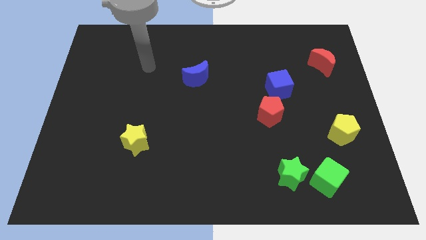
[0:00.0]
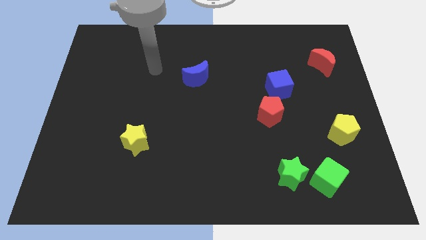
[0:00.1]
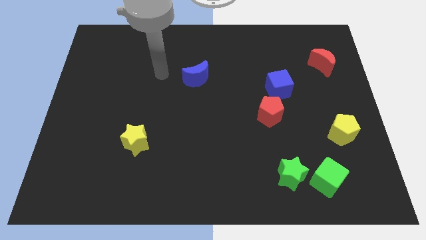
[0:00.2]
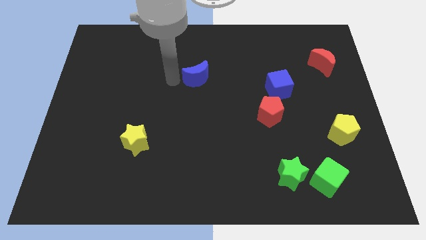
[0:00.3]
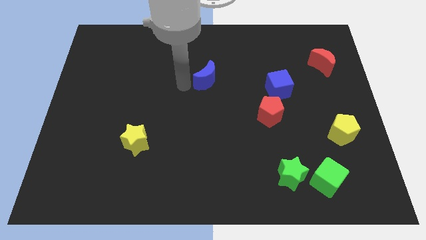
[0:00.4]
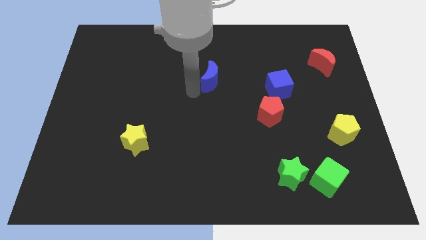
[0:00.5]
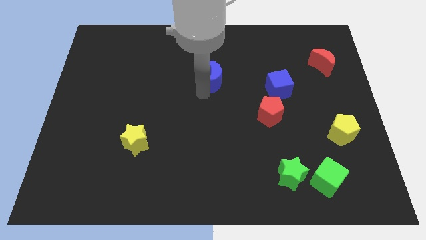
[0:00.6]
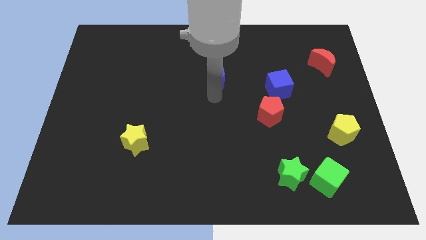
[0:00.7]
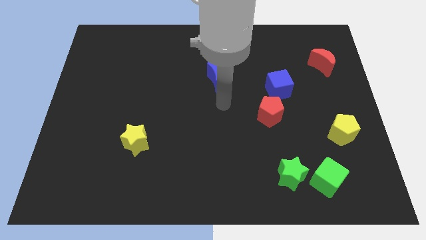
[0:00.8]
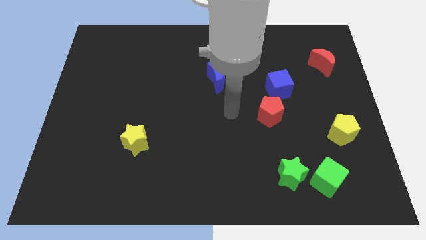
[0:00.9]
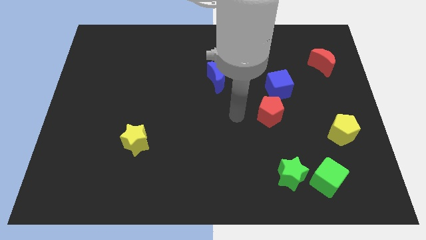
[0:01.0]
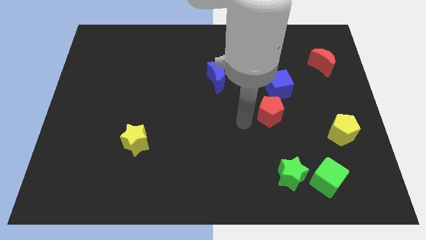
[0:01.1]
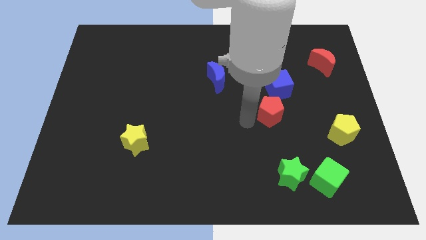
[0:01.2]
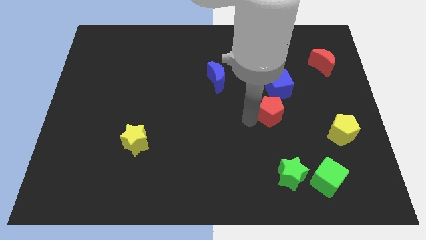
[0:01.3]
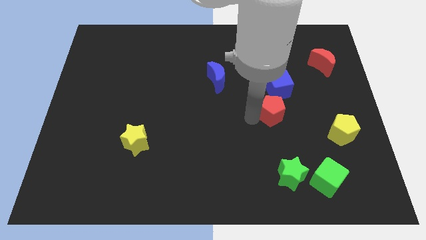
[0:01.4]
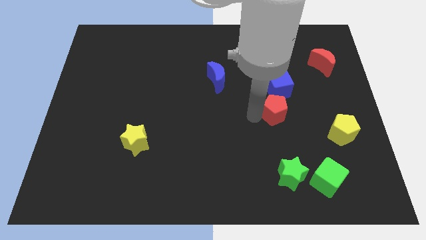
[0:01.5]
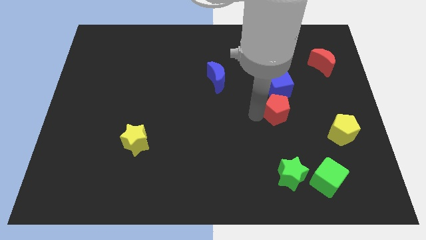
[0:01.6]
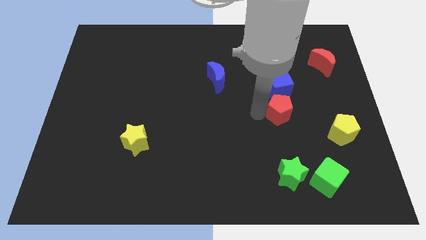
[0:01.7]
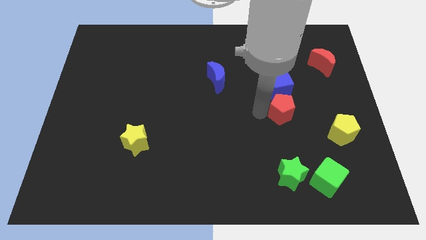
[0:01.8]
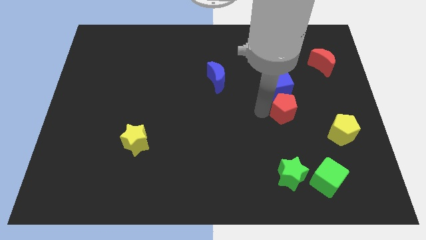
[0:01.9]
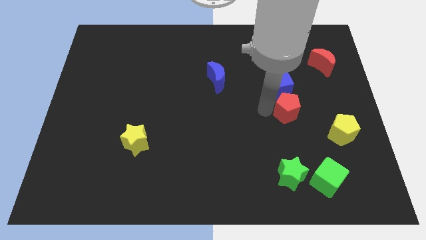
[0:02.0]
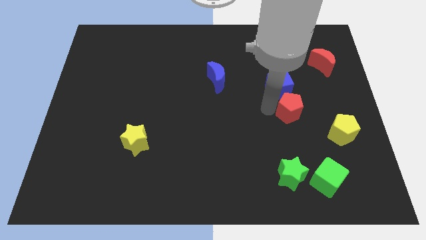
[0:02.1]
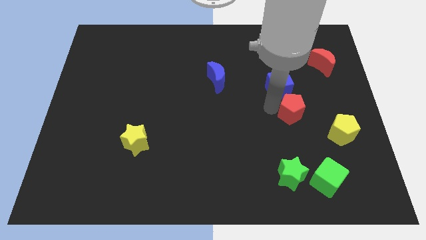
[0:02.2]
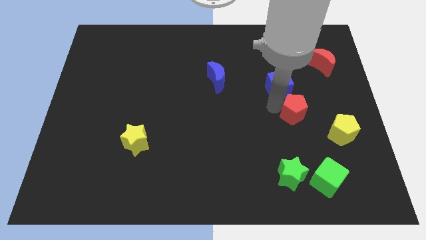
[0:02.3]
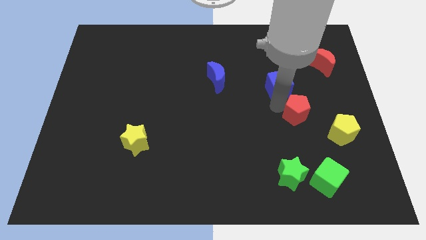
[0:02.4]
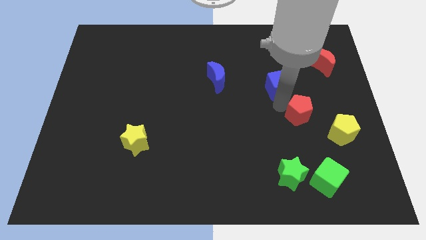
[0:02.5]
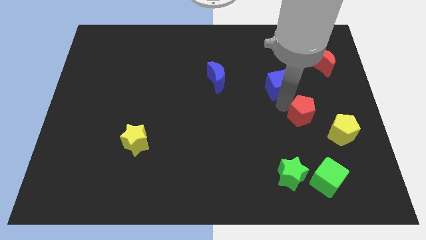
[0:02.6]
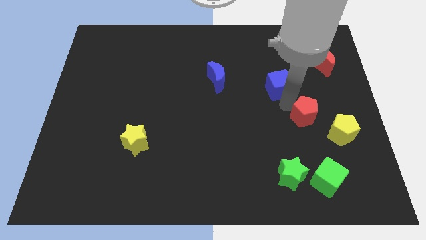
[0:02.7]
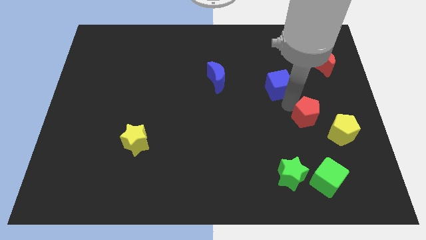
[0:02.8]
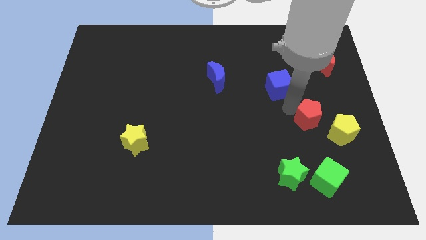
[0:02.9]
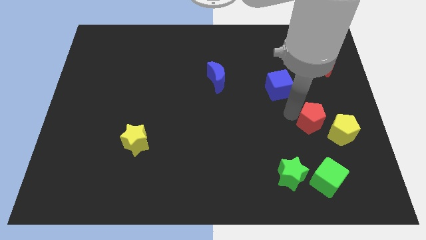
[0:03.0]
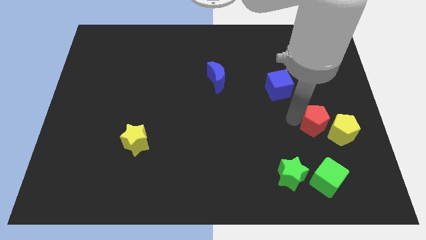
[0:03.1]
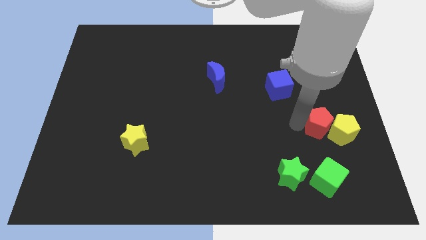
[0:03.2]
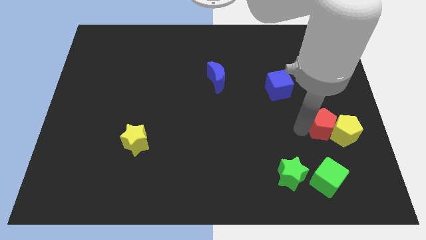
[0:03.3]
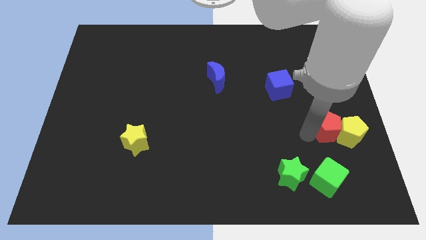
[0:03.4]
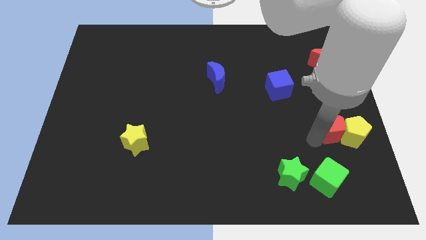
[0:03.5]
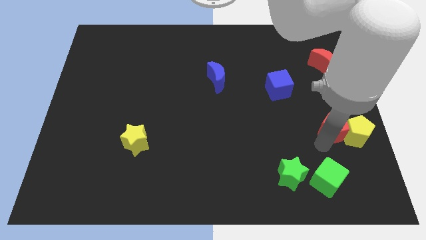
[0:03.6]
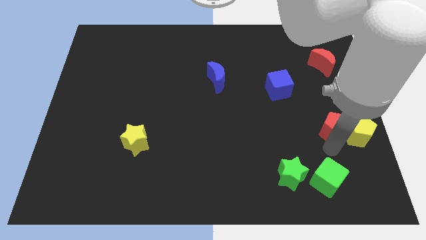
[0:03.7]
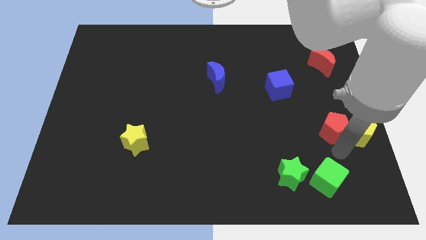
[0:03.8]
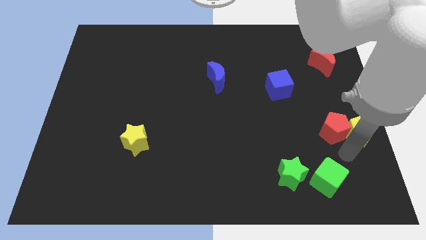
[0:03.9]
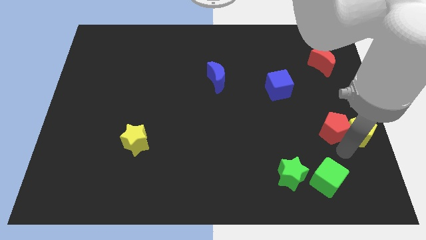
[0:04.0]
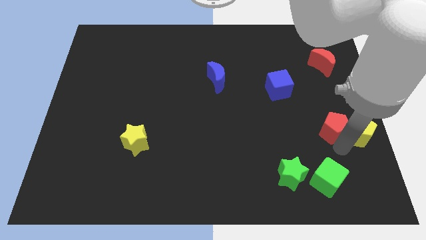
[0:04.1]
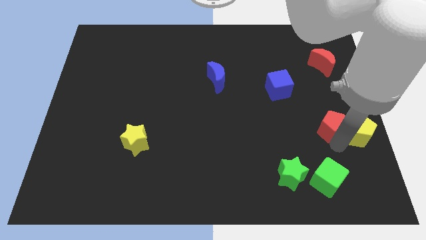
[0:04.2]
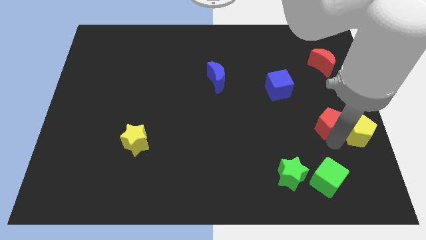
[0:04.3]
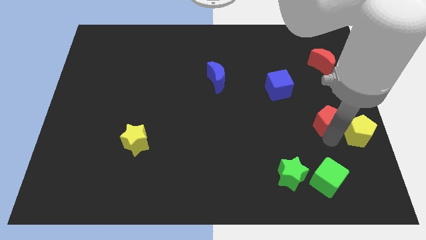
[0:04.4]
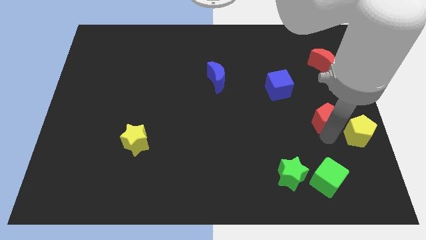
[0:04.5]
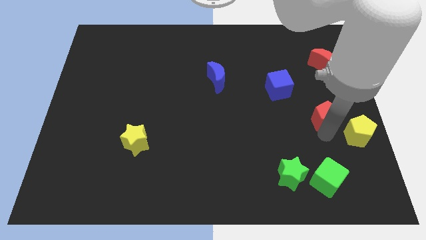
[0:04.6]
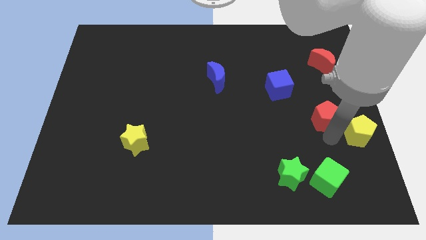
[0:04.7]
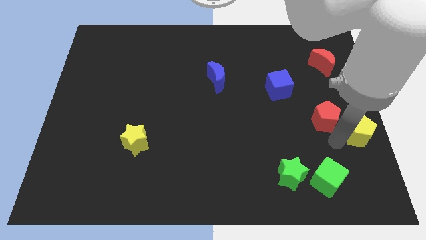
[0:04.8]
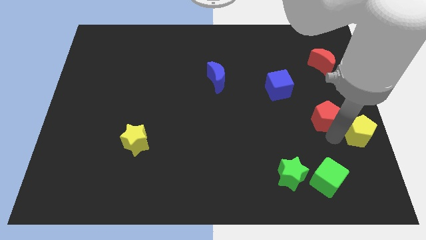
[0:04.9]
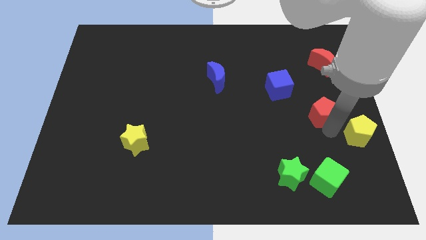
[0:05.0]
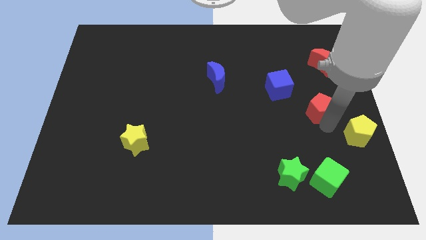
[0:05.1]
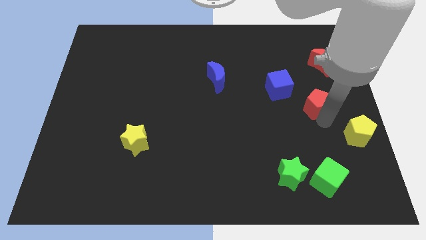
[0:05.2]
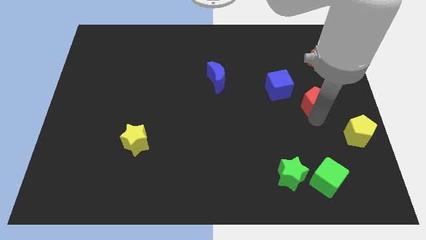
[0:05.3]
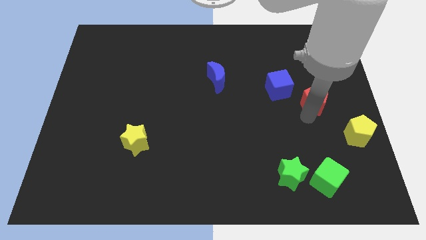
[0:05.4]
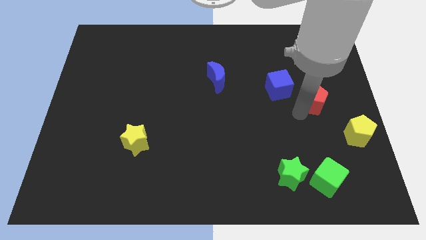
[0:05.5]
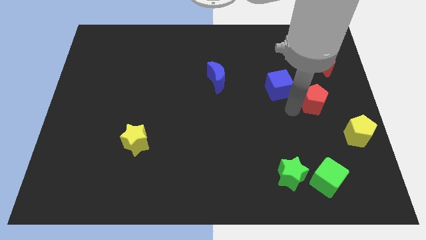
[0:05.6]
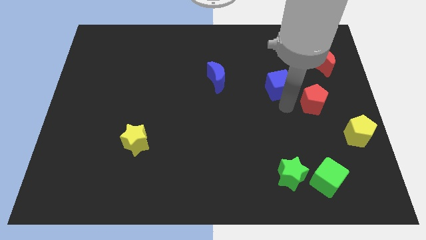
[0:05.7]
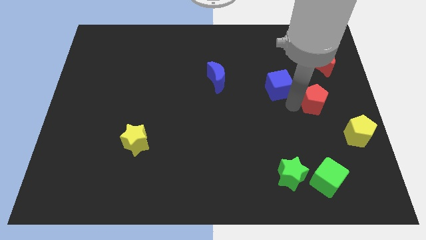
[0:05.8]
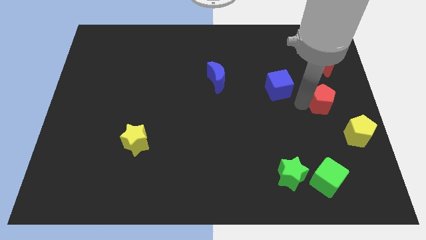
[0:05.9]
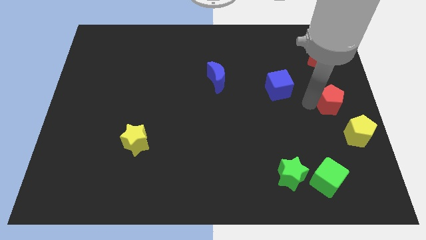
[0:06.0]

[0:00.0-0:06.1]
push the red pentagon to the top of the yellow pentagon

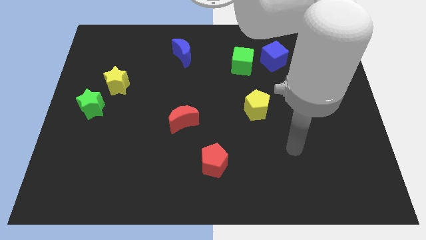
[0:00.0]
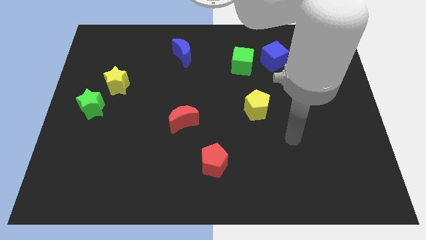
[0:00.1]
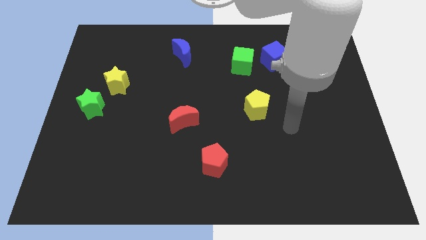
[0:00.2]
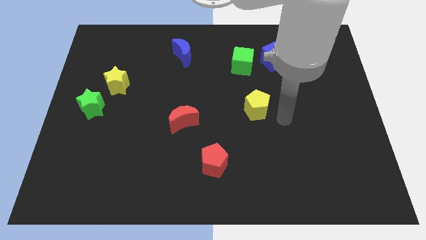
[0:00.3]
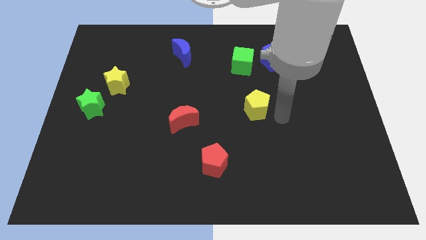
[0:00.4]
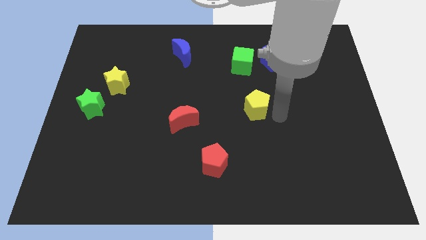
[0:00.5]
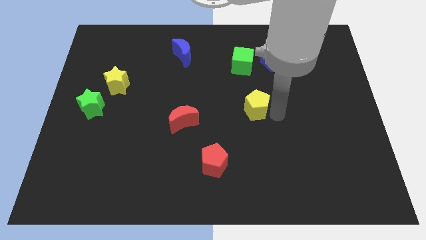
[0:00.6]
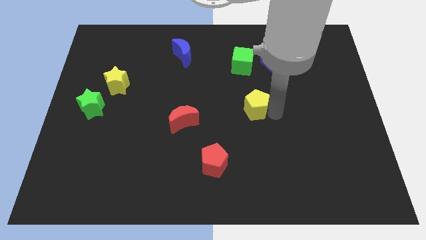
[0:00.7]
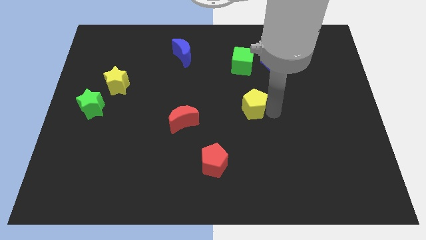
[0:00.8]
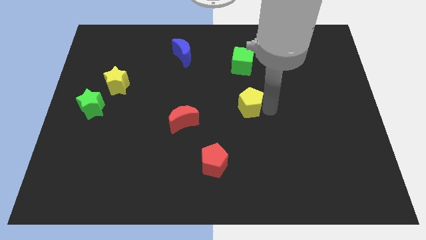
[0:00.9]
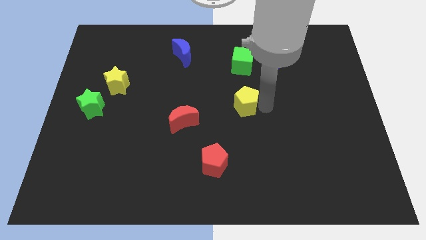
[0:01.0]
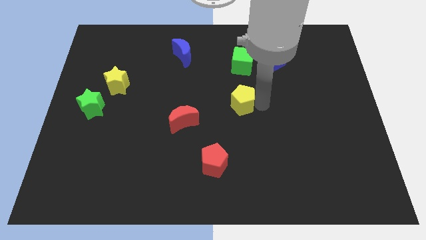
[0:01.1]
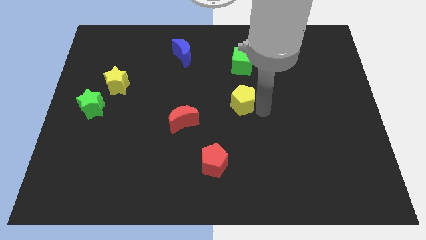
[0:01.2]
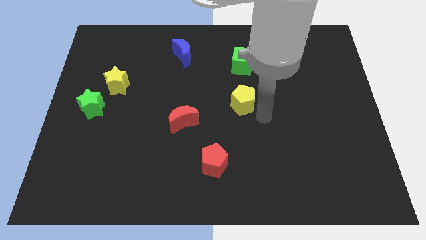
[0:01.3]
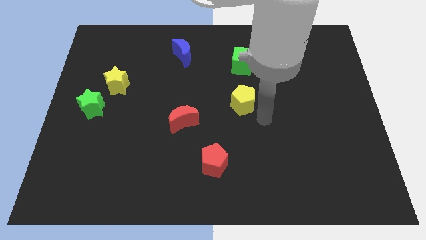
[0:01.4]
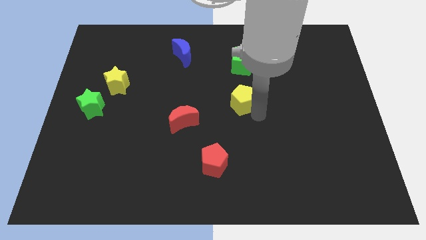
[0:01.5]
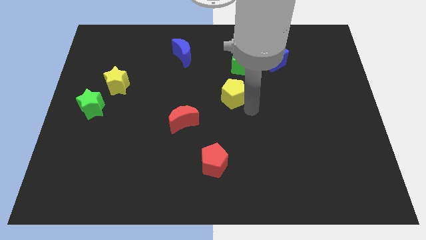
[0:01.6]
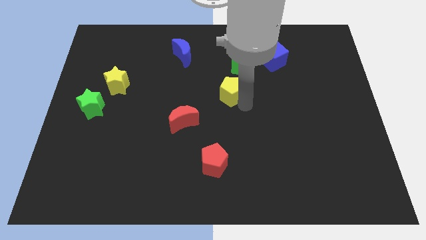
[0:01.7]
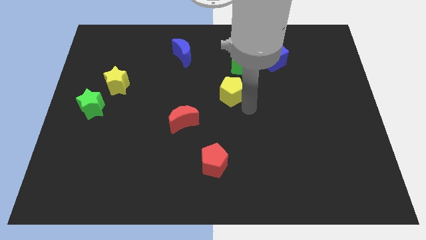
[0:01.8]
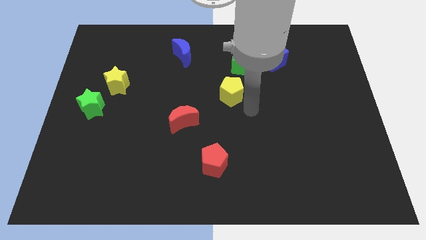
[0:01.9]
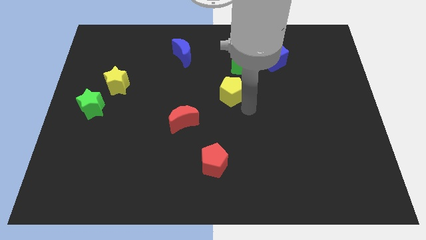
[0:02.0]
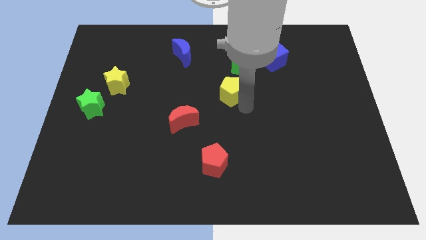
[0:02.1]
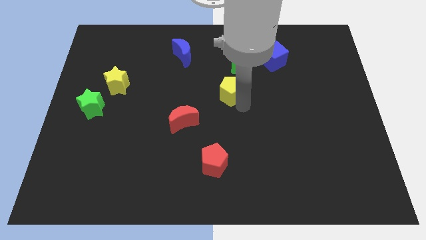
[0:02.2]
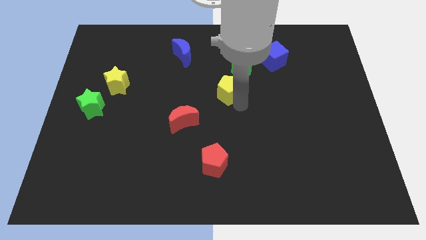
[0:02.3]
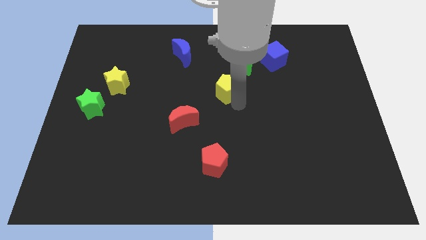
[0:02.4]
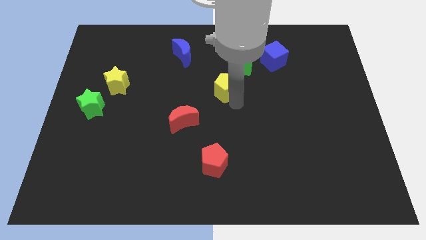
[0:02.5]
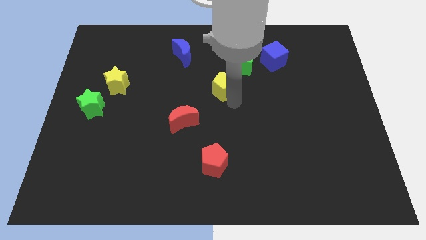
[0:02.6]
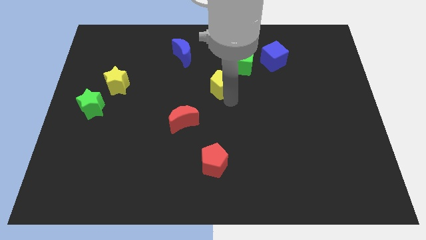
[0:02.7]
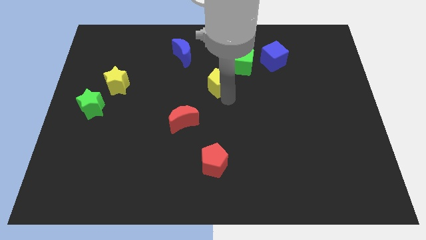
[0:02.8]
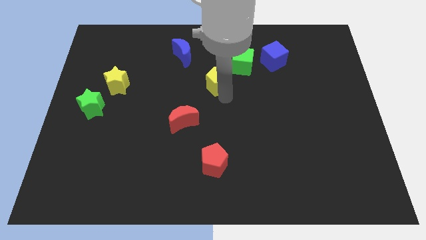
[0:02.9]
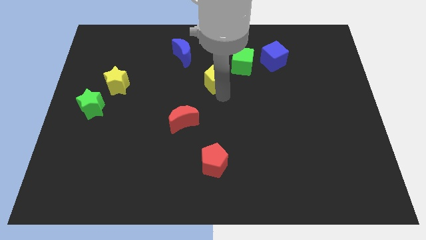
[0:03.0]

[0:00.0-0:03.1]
slide the yellow pentagon diagonally down and to the right of the blue moon
